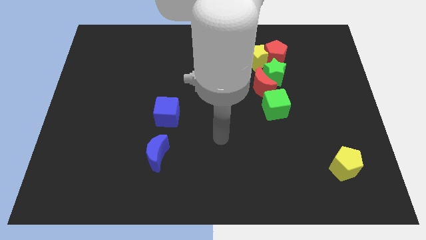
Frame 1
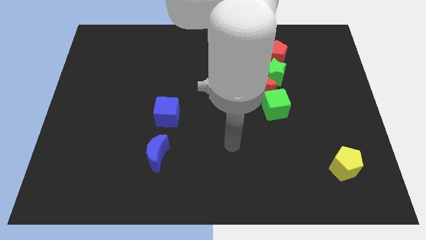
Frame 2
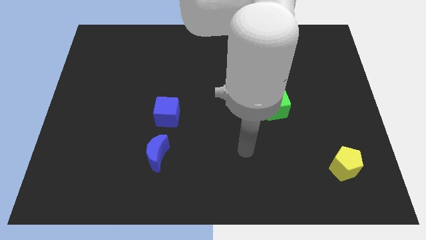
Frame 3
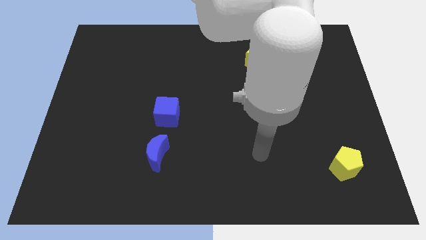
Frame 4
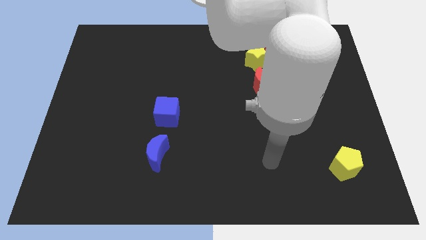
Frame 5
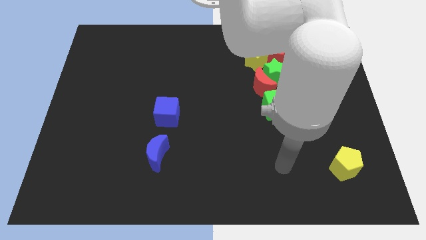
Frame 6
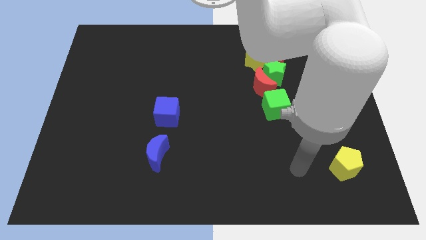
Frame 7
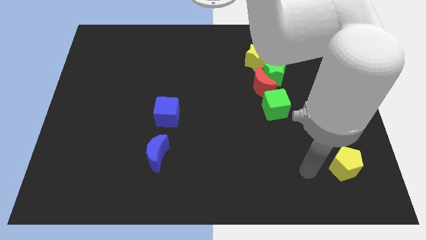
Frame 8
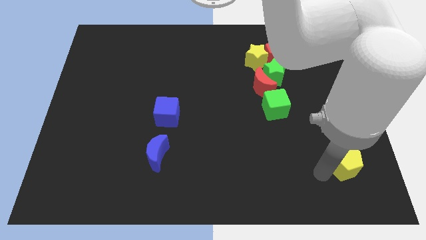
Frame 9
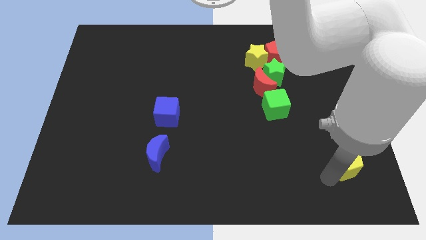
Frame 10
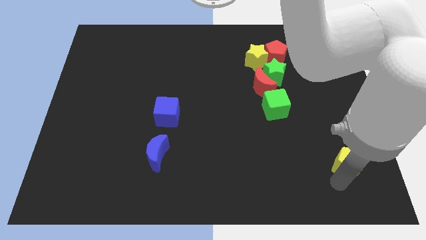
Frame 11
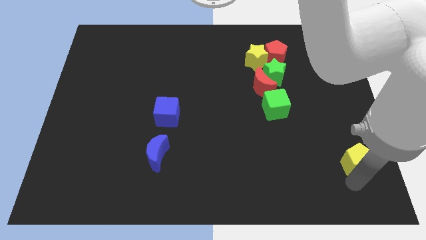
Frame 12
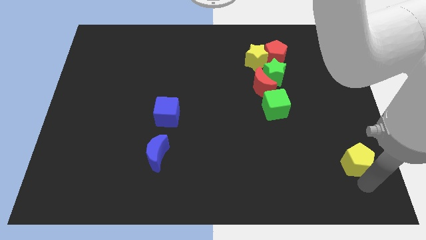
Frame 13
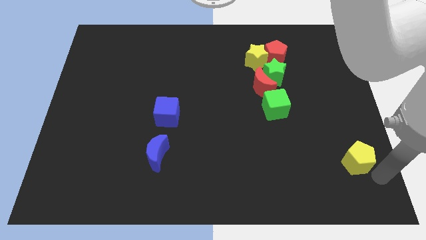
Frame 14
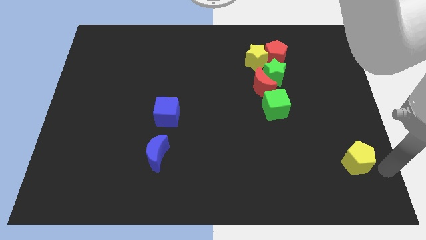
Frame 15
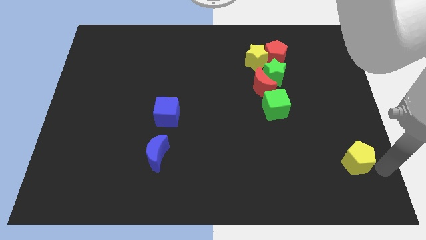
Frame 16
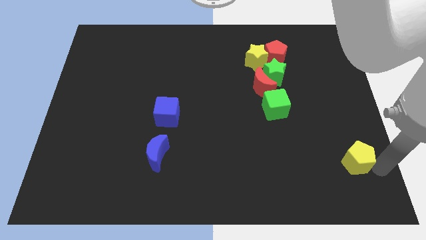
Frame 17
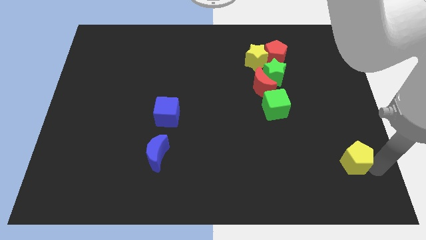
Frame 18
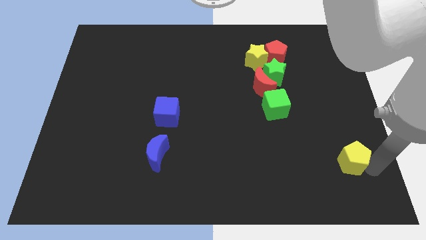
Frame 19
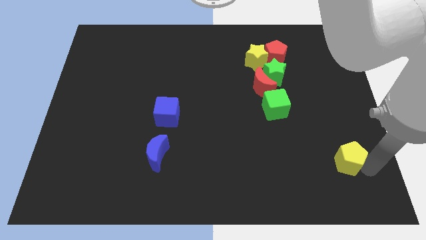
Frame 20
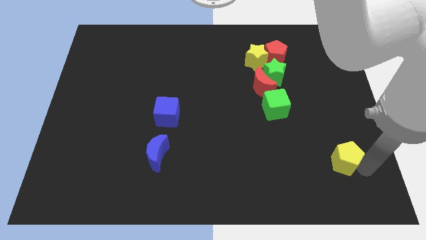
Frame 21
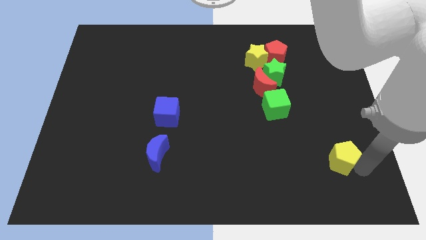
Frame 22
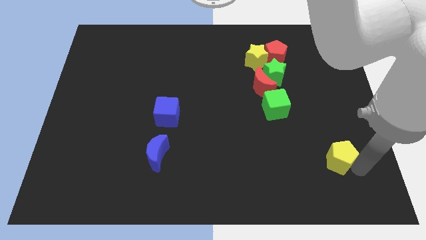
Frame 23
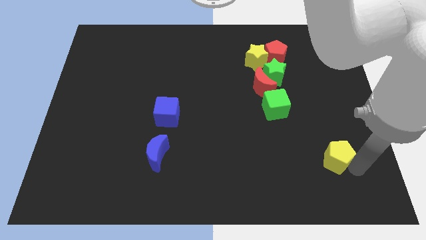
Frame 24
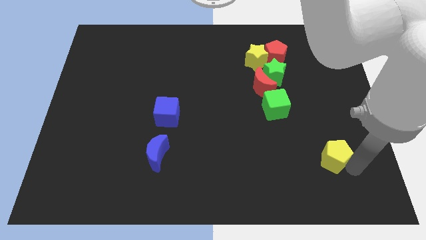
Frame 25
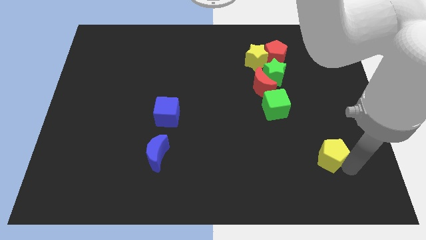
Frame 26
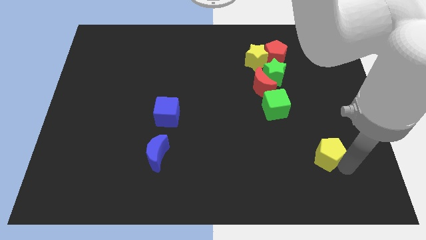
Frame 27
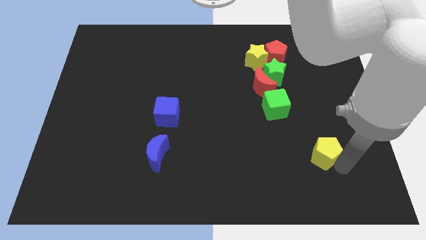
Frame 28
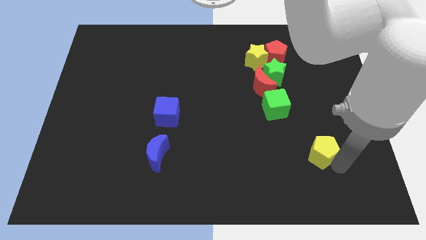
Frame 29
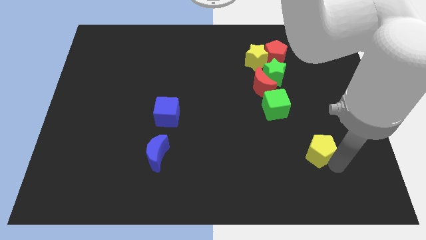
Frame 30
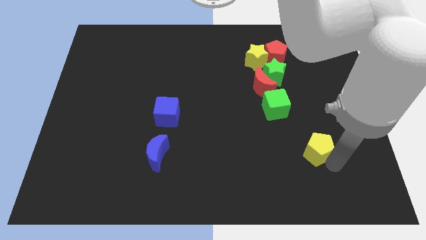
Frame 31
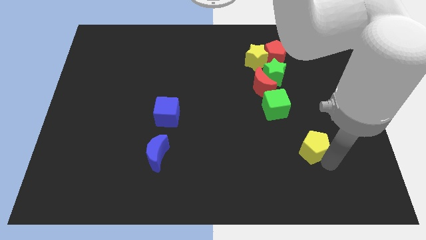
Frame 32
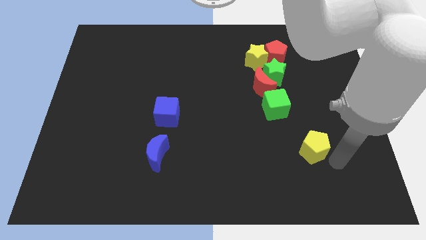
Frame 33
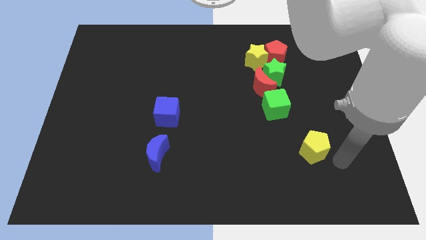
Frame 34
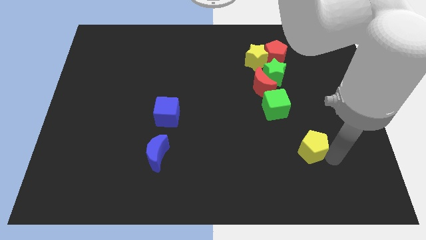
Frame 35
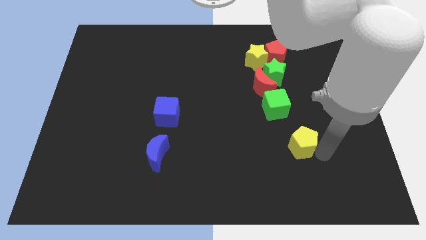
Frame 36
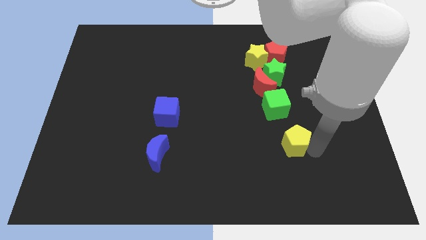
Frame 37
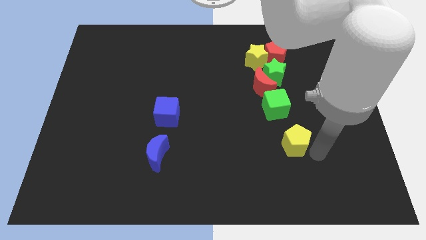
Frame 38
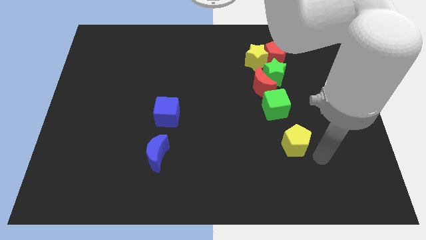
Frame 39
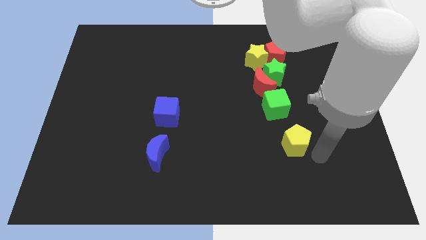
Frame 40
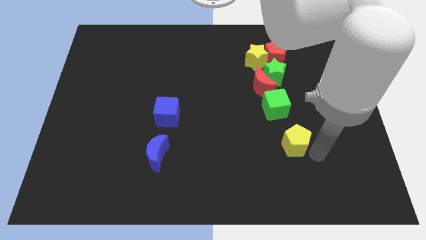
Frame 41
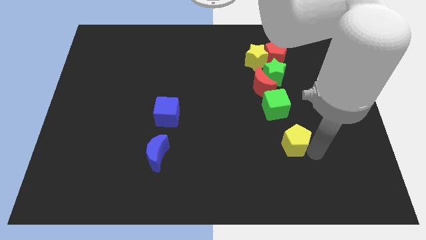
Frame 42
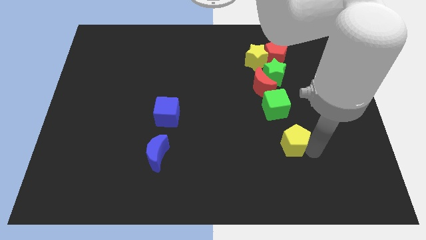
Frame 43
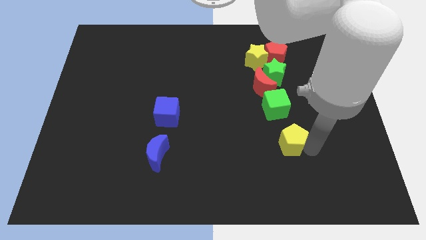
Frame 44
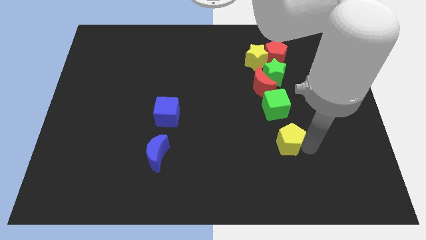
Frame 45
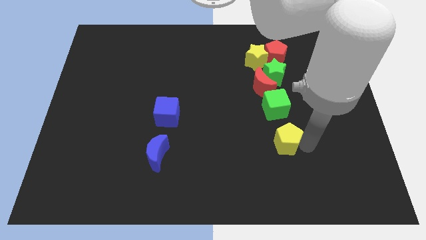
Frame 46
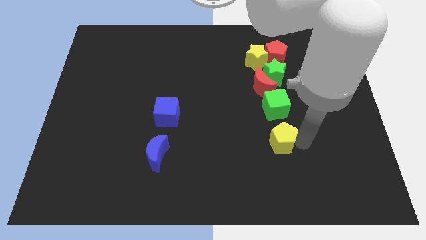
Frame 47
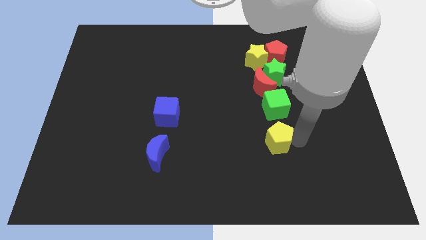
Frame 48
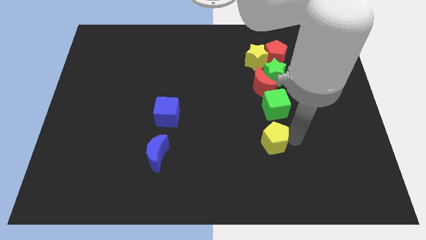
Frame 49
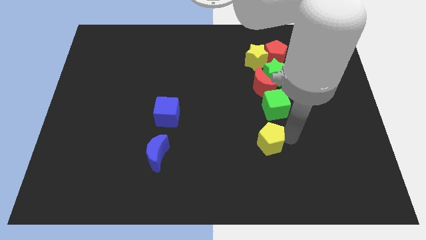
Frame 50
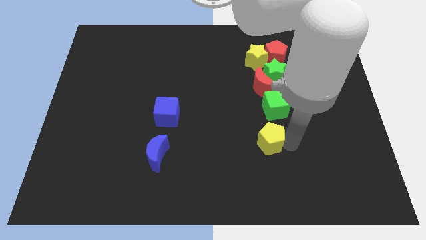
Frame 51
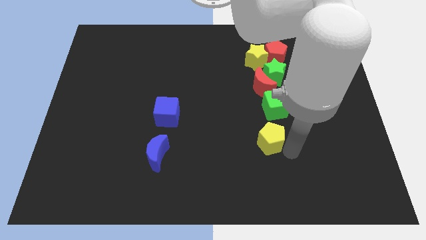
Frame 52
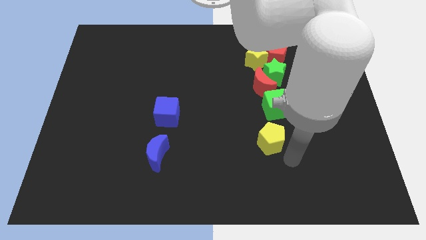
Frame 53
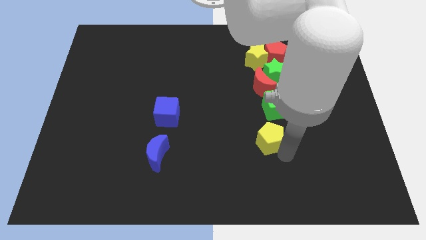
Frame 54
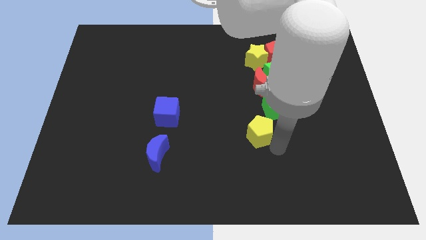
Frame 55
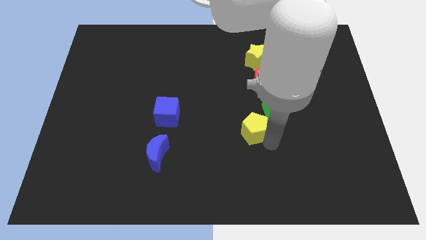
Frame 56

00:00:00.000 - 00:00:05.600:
put the yellow pentagon to the center

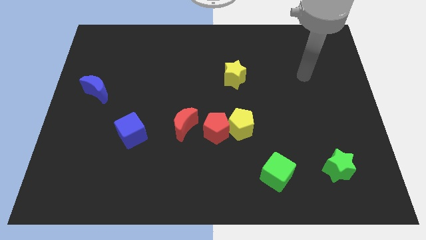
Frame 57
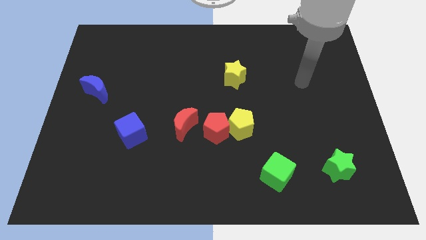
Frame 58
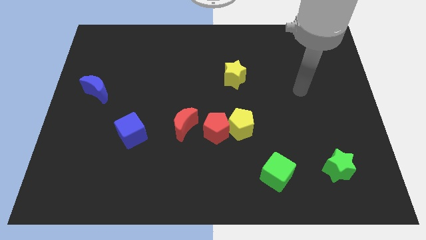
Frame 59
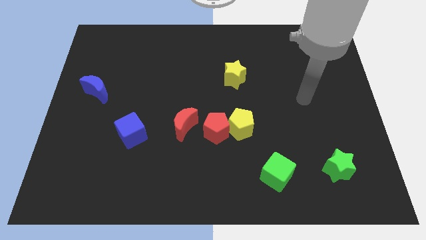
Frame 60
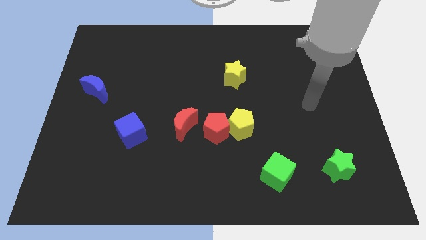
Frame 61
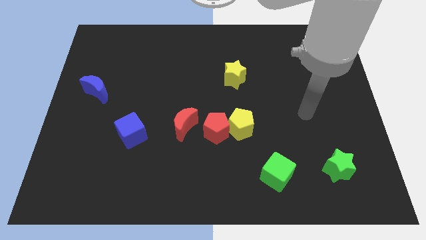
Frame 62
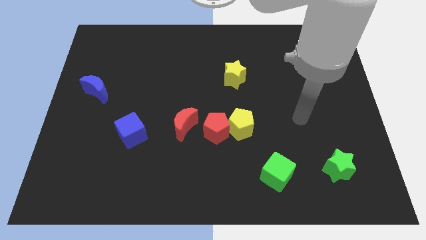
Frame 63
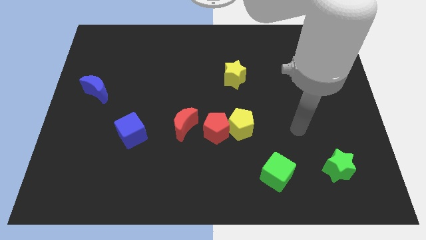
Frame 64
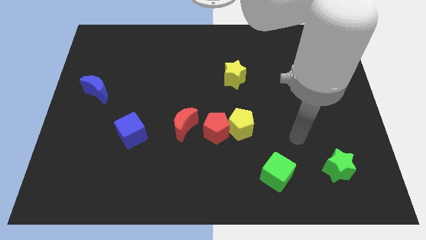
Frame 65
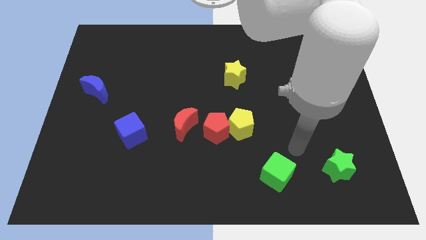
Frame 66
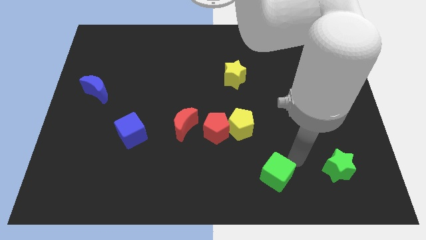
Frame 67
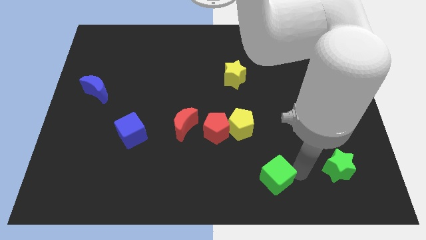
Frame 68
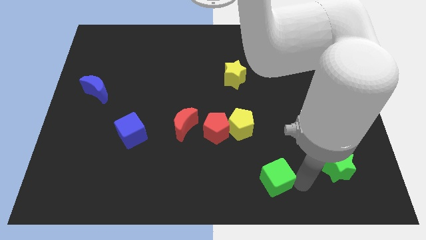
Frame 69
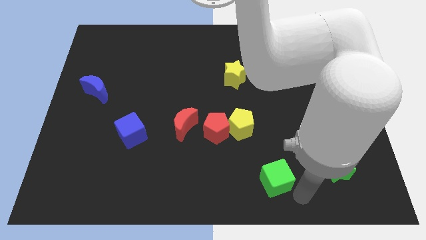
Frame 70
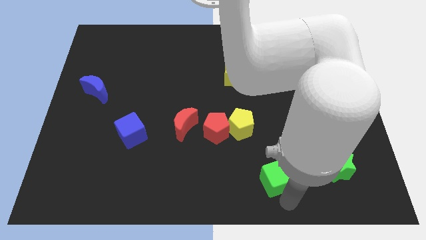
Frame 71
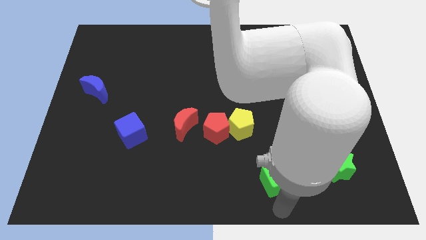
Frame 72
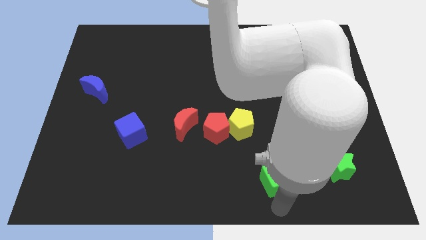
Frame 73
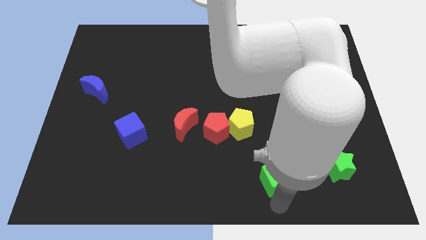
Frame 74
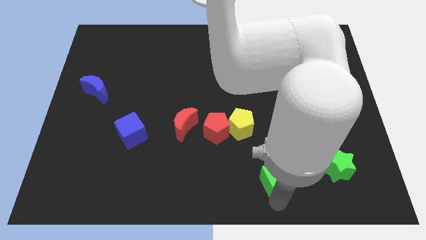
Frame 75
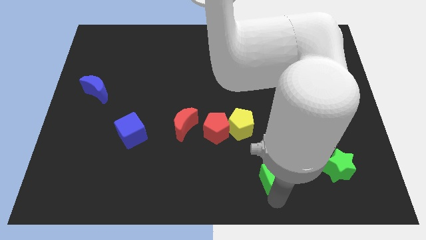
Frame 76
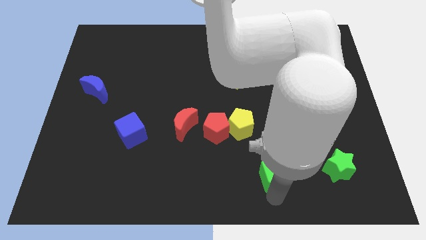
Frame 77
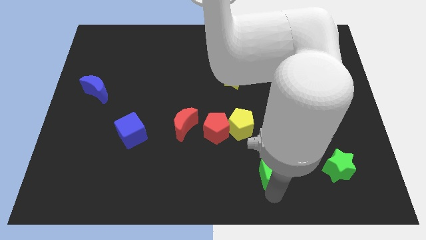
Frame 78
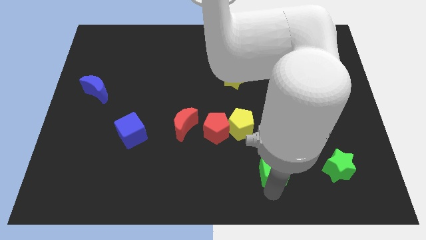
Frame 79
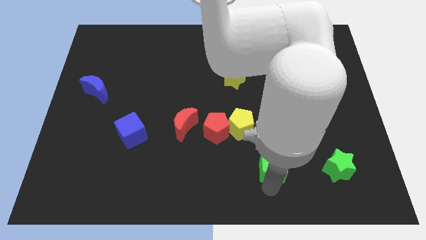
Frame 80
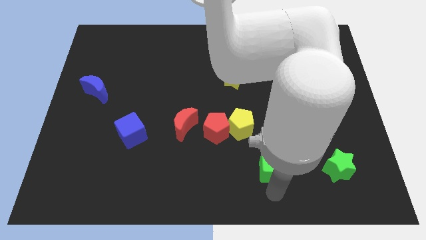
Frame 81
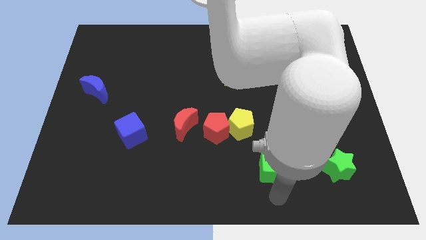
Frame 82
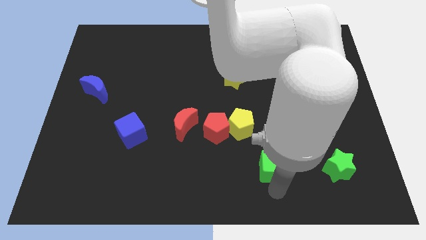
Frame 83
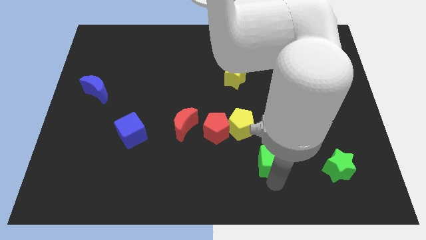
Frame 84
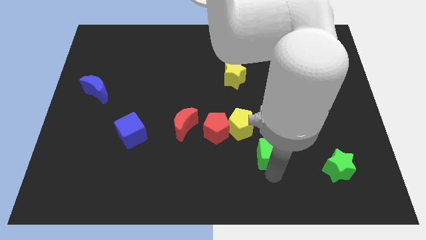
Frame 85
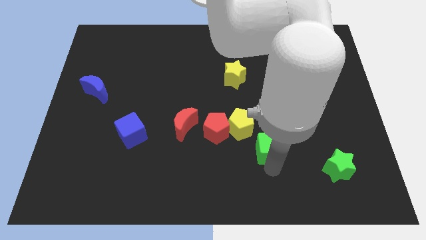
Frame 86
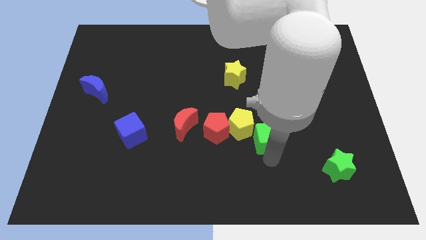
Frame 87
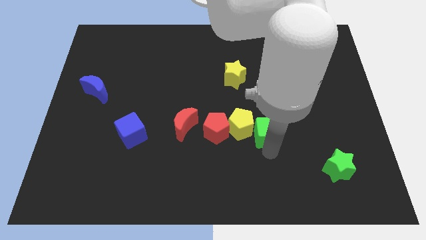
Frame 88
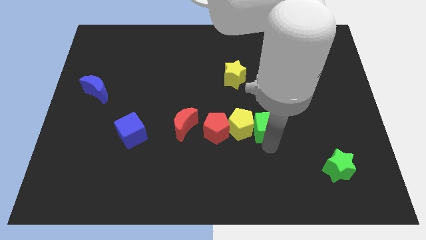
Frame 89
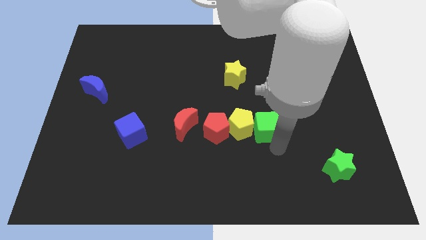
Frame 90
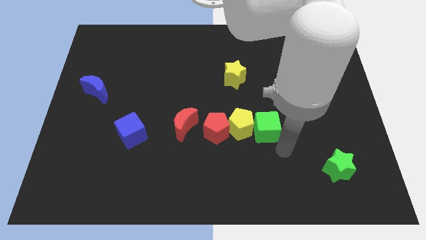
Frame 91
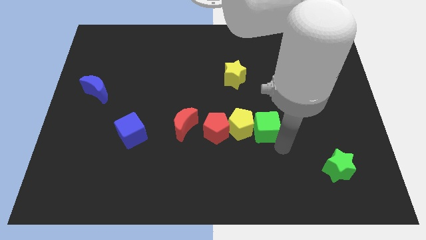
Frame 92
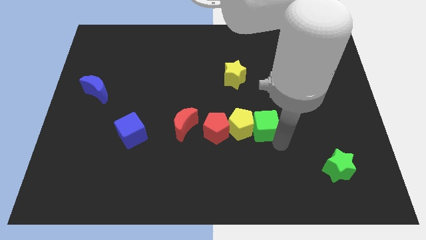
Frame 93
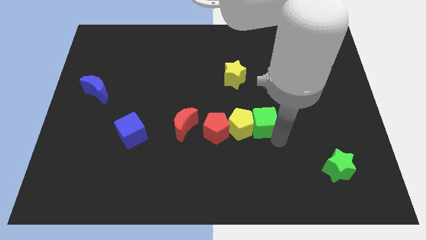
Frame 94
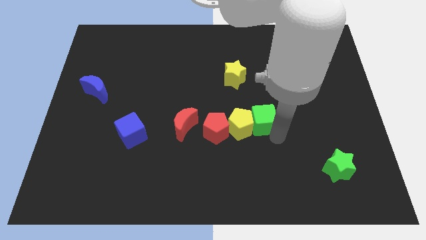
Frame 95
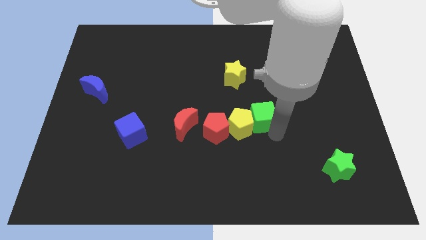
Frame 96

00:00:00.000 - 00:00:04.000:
push the green cube to the center
